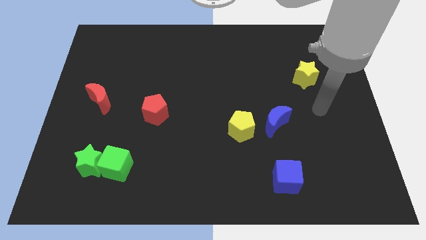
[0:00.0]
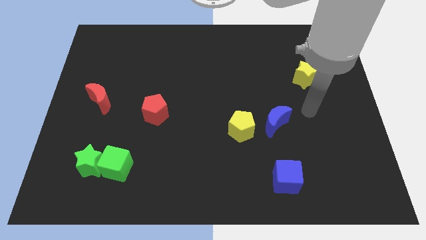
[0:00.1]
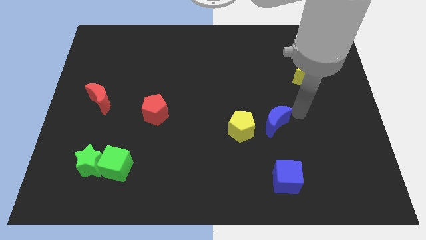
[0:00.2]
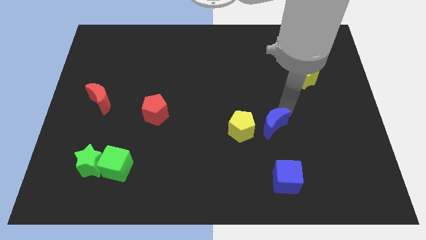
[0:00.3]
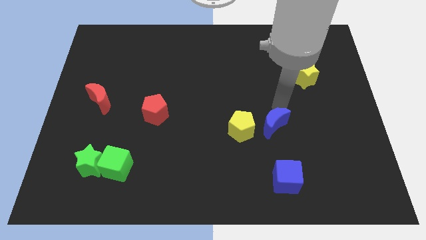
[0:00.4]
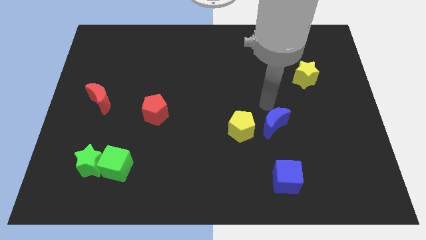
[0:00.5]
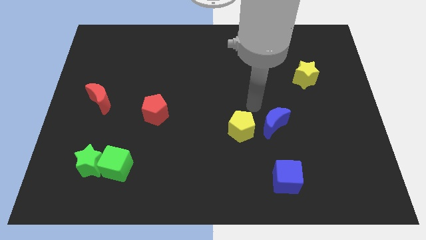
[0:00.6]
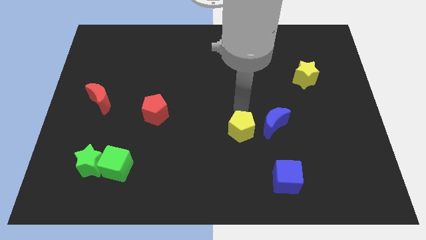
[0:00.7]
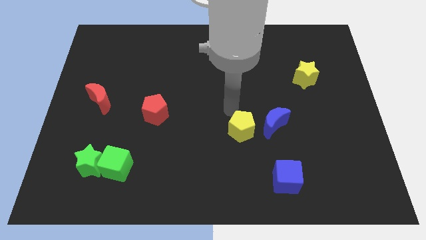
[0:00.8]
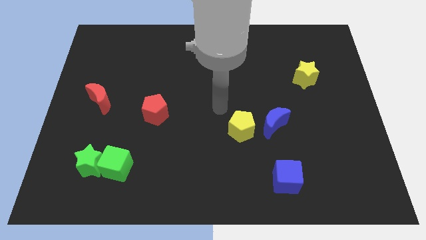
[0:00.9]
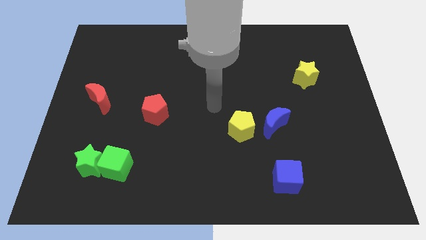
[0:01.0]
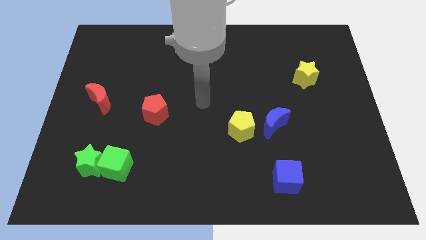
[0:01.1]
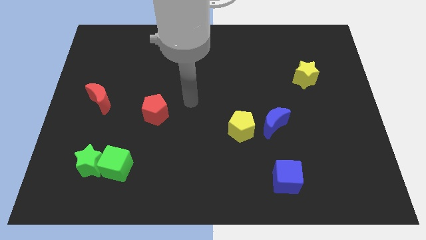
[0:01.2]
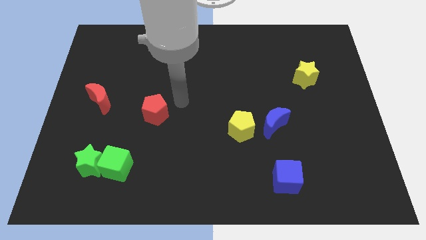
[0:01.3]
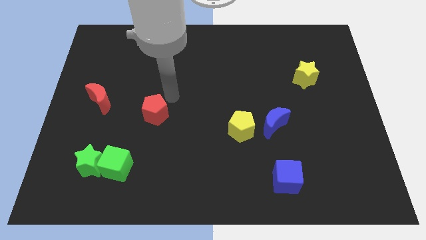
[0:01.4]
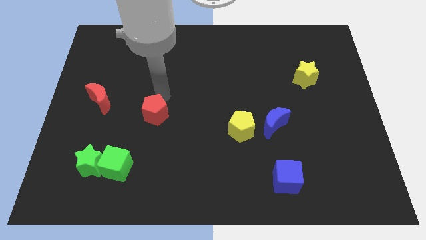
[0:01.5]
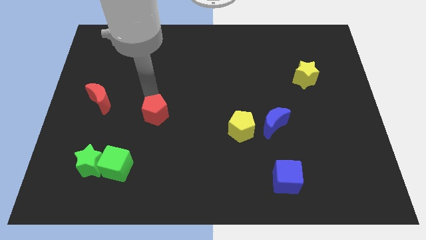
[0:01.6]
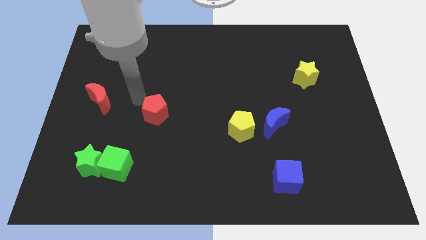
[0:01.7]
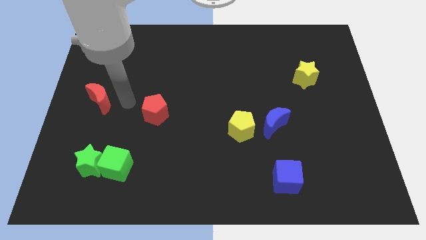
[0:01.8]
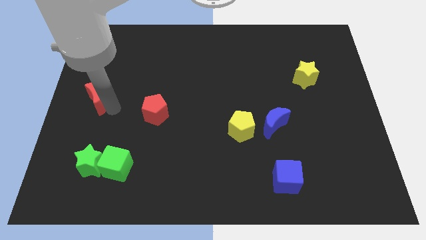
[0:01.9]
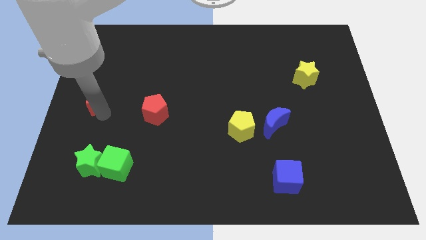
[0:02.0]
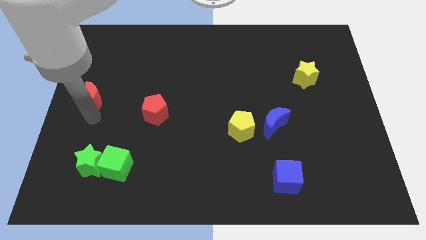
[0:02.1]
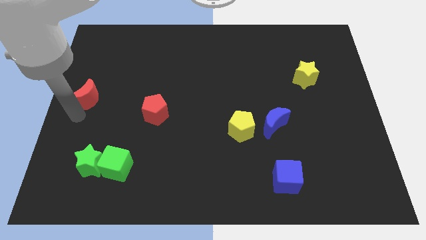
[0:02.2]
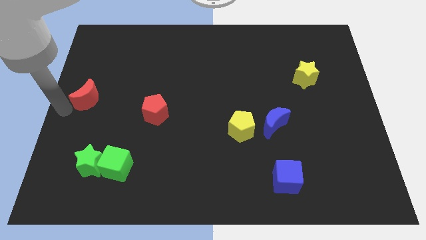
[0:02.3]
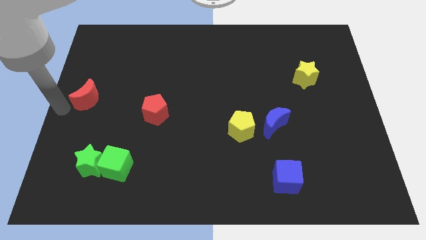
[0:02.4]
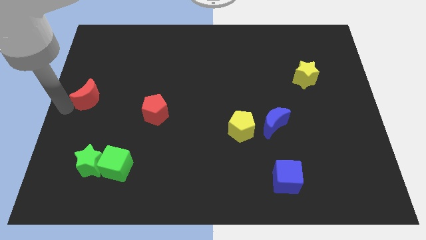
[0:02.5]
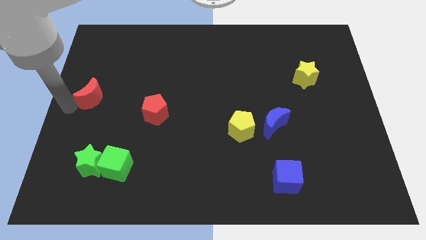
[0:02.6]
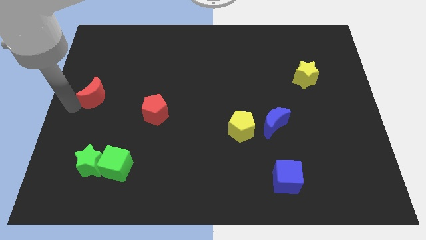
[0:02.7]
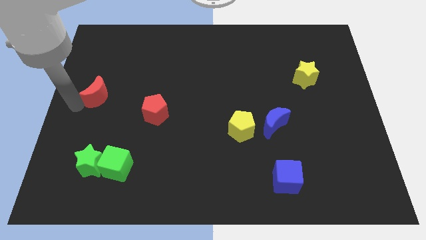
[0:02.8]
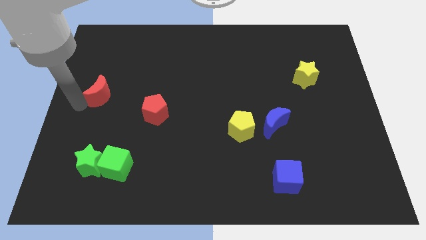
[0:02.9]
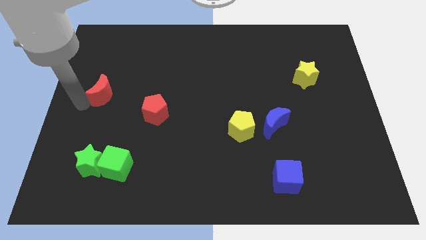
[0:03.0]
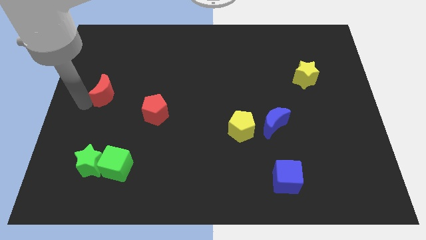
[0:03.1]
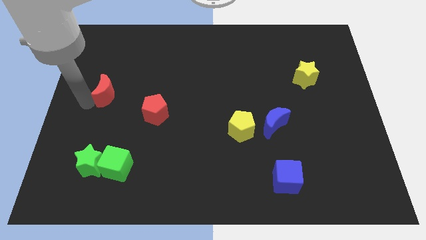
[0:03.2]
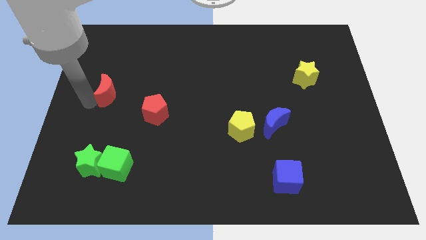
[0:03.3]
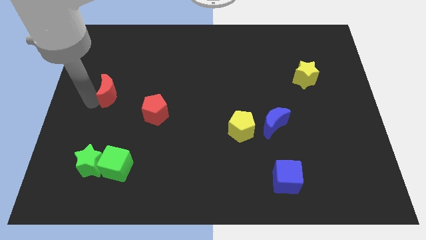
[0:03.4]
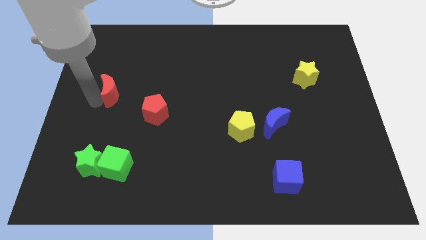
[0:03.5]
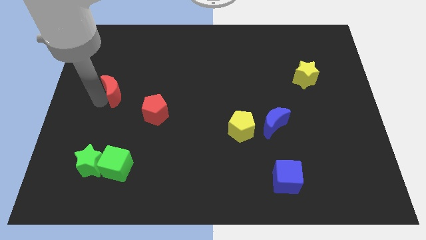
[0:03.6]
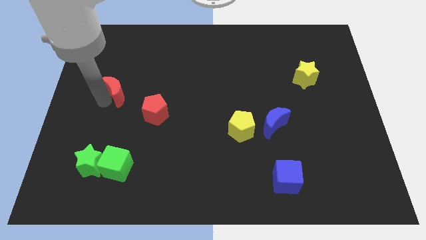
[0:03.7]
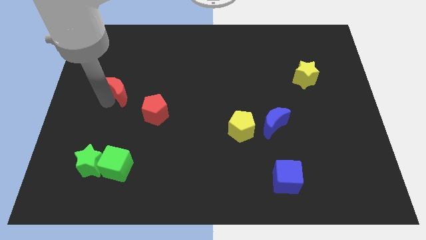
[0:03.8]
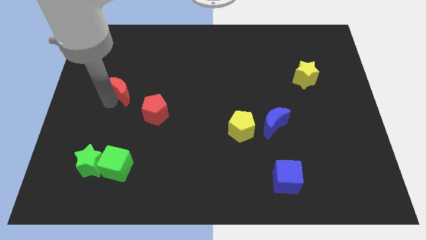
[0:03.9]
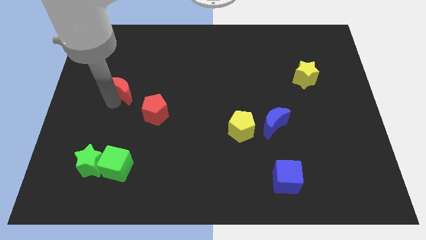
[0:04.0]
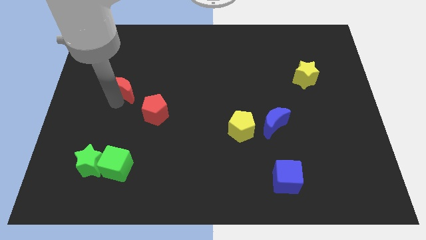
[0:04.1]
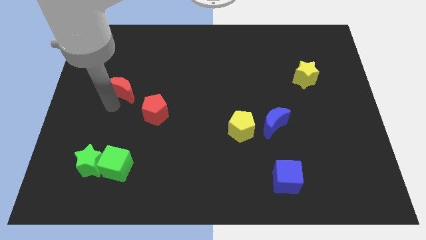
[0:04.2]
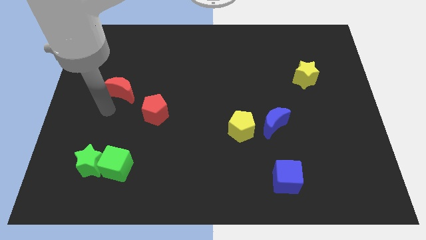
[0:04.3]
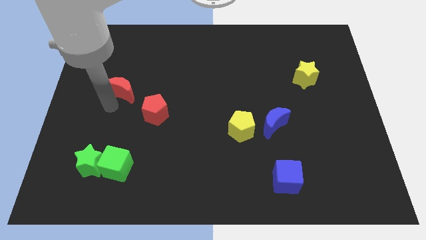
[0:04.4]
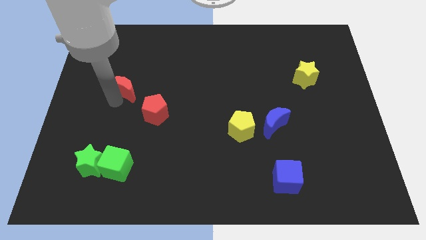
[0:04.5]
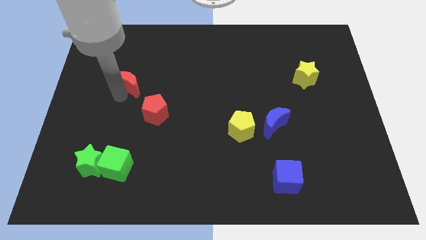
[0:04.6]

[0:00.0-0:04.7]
slightly slide the red moon up and to the right

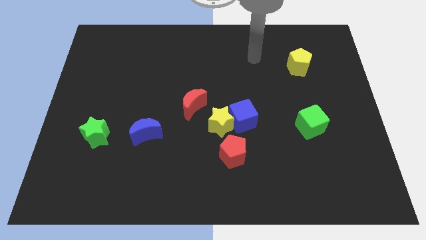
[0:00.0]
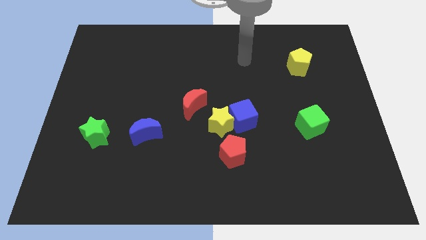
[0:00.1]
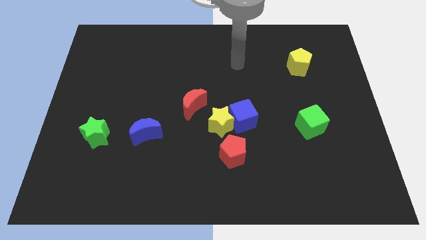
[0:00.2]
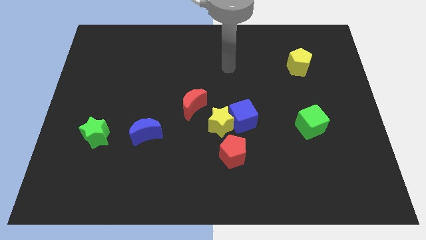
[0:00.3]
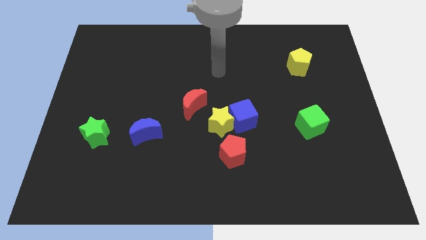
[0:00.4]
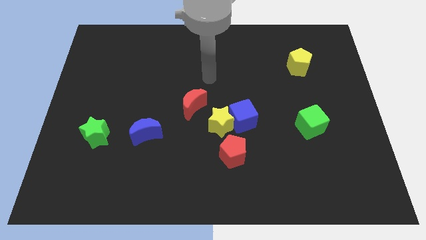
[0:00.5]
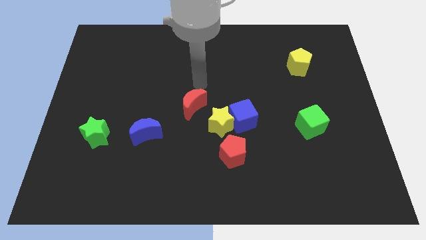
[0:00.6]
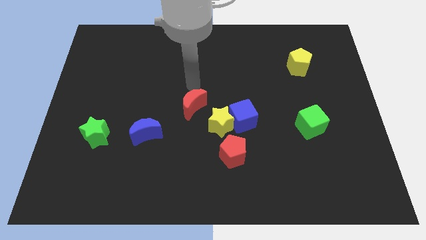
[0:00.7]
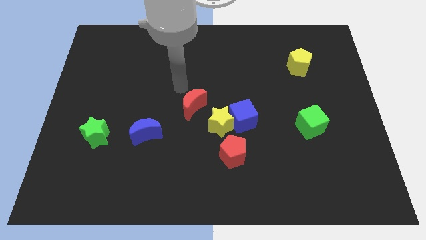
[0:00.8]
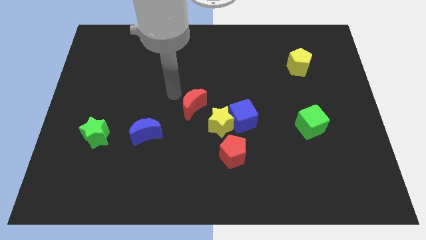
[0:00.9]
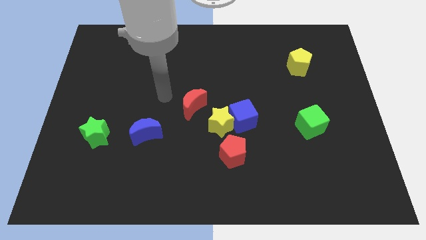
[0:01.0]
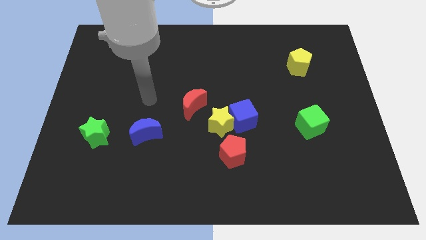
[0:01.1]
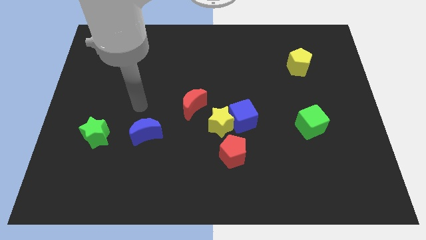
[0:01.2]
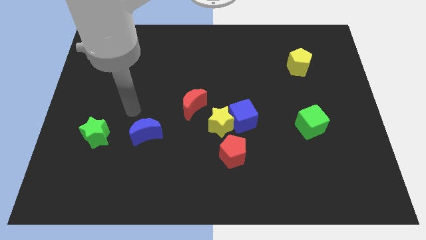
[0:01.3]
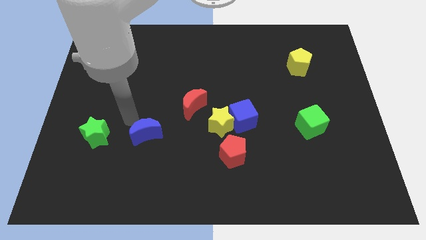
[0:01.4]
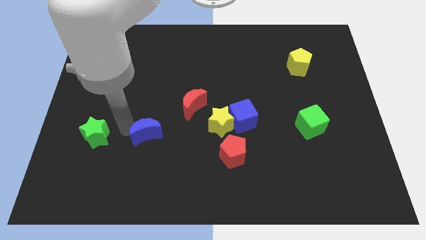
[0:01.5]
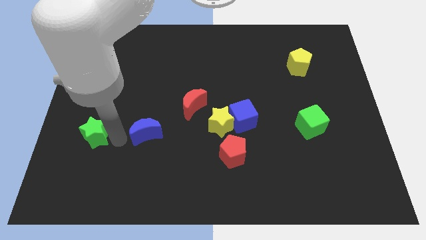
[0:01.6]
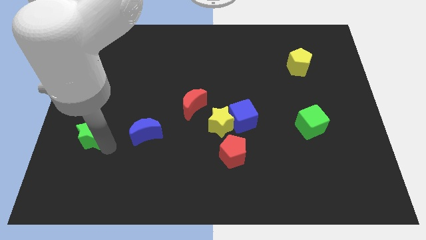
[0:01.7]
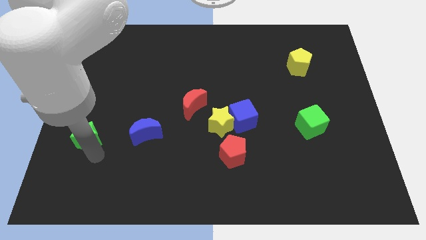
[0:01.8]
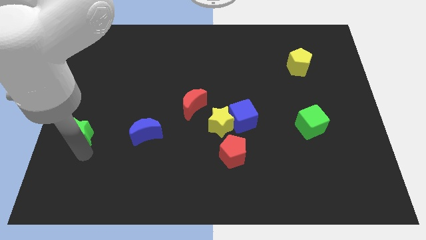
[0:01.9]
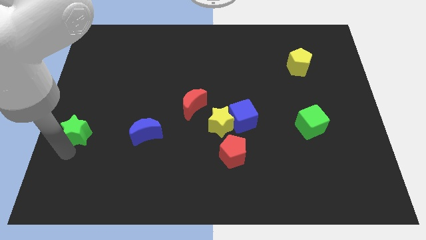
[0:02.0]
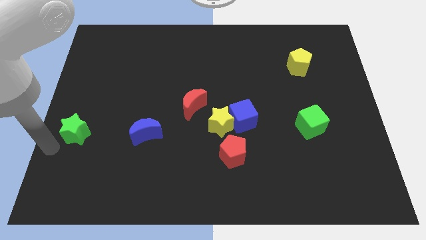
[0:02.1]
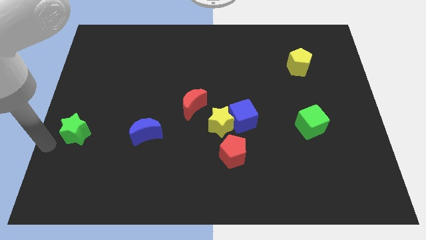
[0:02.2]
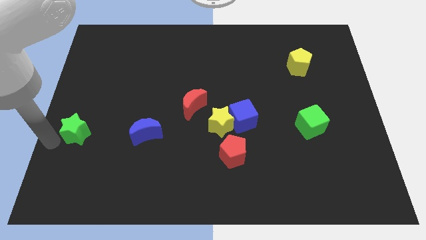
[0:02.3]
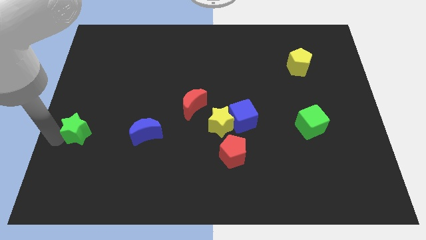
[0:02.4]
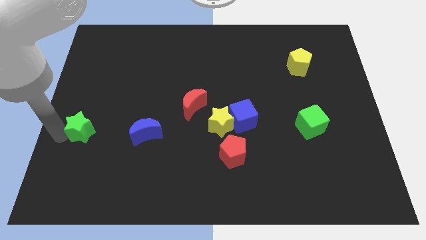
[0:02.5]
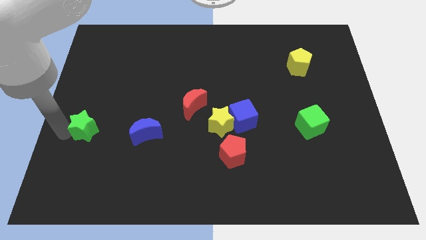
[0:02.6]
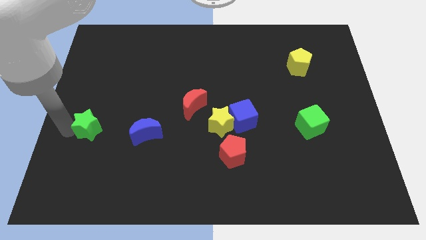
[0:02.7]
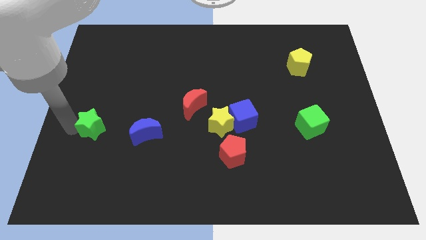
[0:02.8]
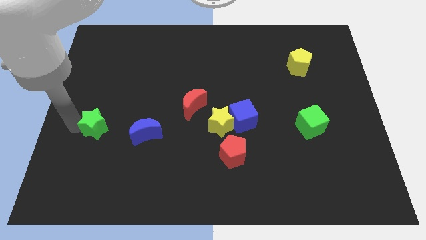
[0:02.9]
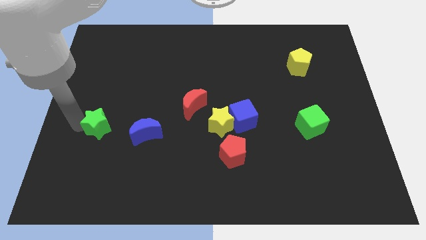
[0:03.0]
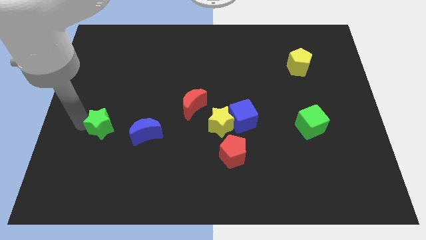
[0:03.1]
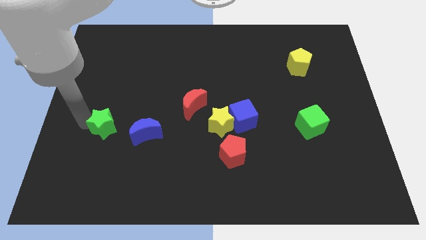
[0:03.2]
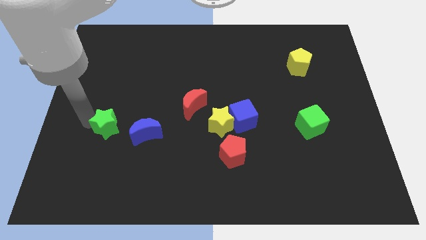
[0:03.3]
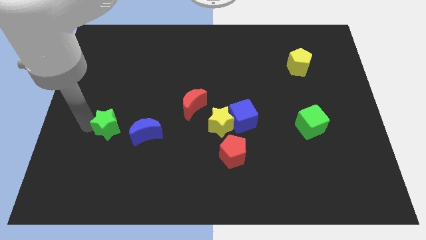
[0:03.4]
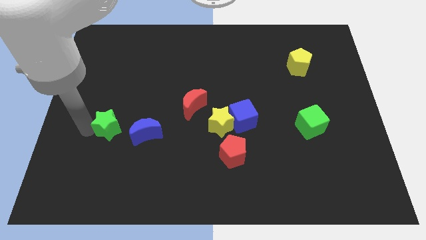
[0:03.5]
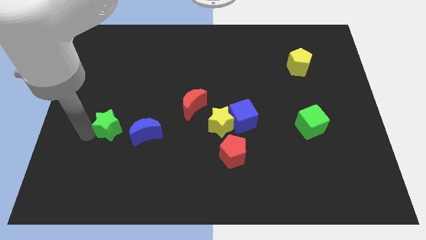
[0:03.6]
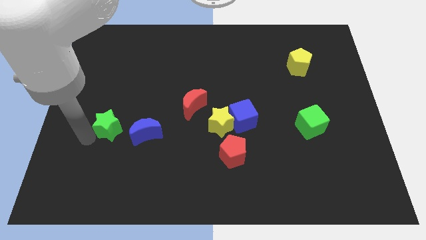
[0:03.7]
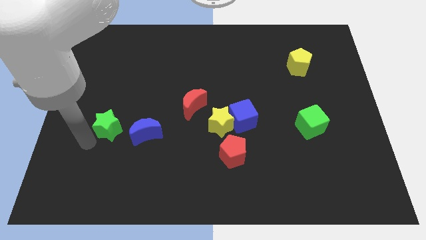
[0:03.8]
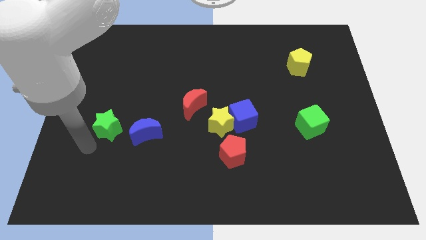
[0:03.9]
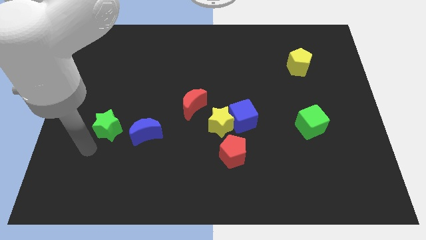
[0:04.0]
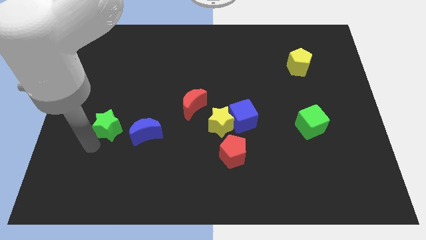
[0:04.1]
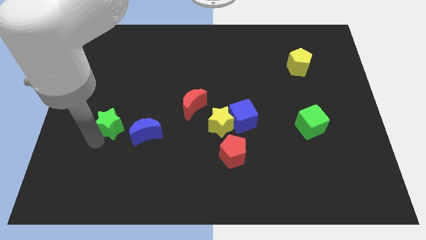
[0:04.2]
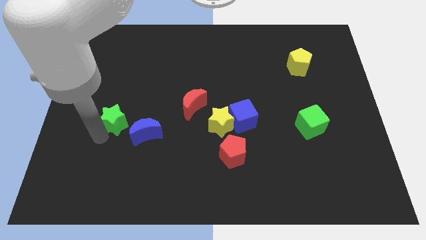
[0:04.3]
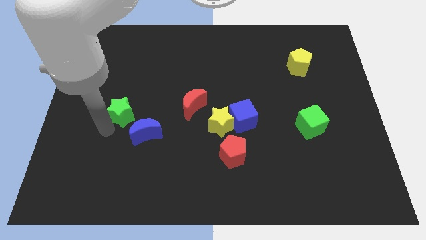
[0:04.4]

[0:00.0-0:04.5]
move the green star a little upwards and right
